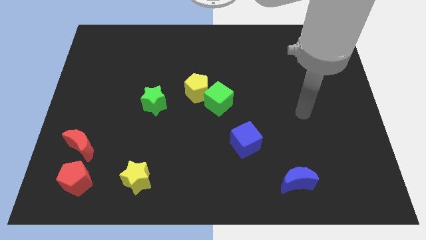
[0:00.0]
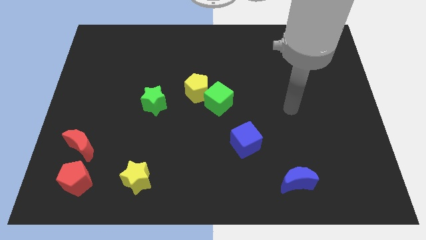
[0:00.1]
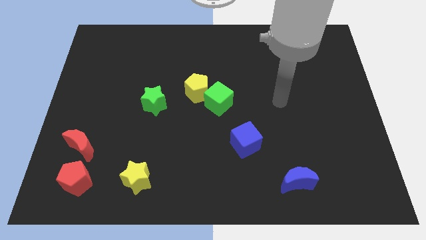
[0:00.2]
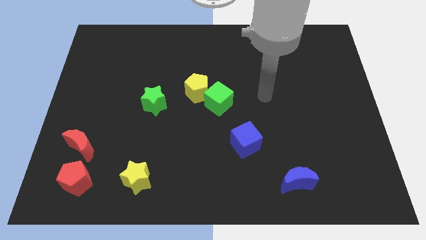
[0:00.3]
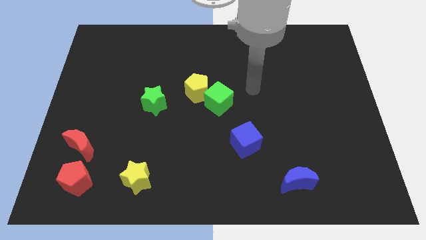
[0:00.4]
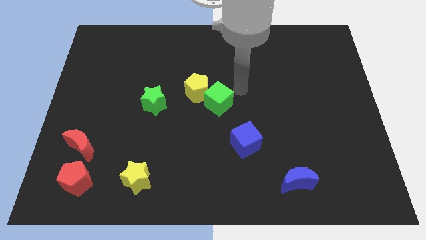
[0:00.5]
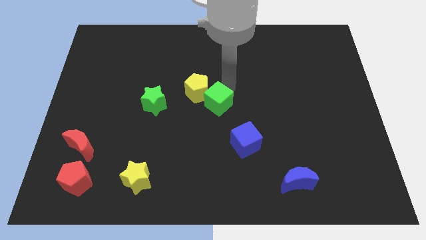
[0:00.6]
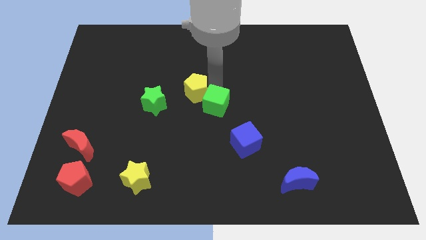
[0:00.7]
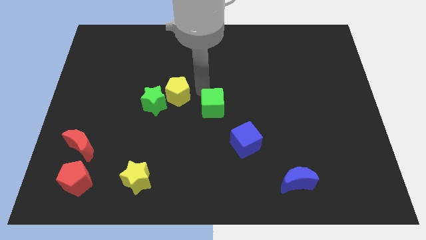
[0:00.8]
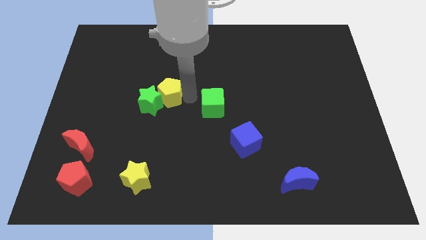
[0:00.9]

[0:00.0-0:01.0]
pull the green cube apart from the yellow pentagon

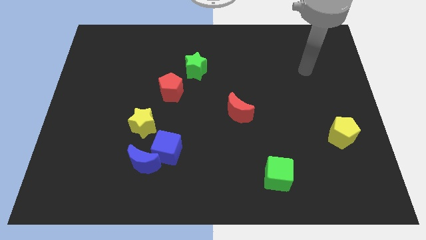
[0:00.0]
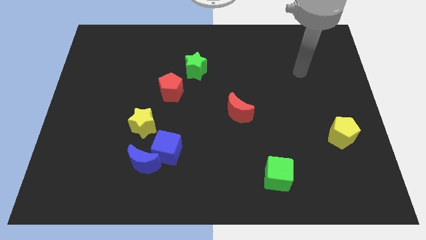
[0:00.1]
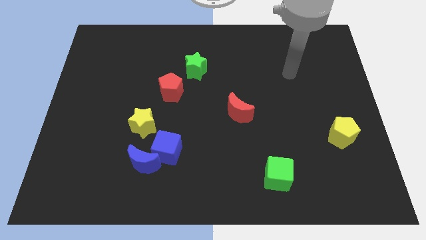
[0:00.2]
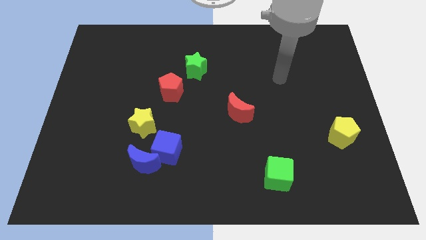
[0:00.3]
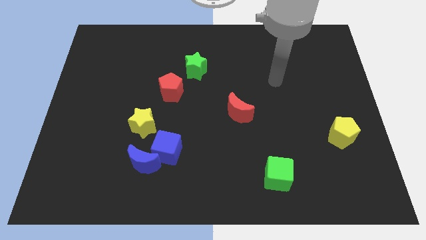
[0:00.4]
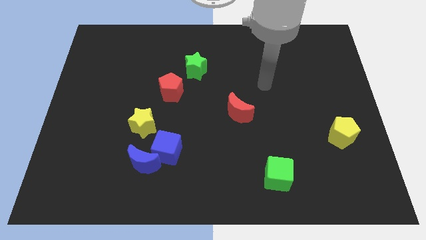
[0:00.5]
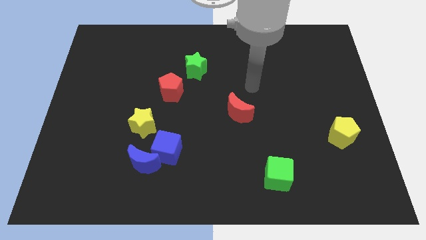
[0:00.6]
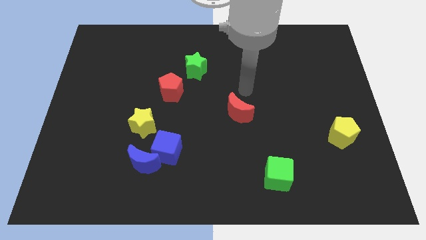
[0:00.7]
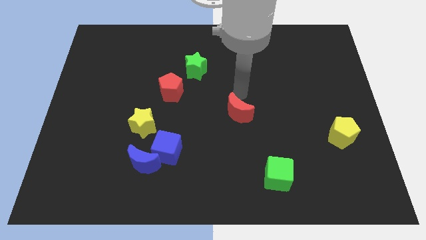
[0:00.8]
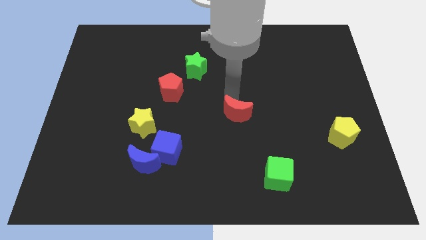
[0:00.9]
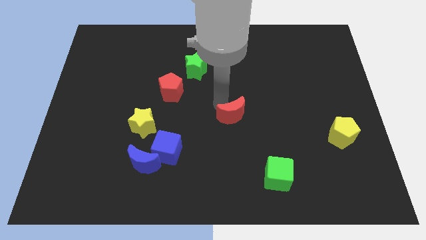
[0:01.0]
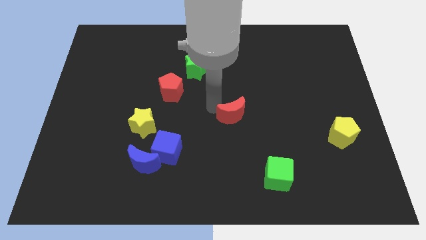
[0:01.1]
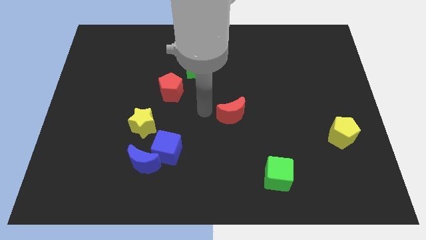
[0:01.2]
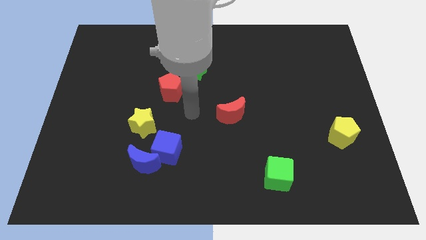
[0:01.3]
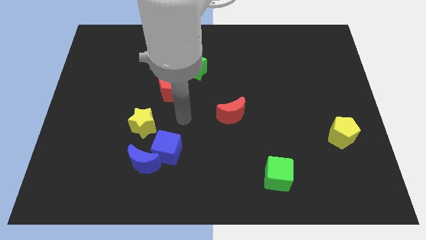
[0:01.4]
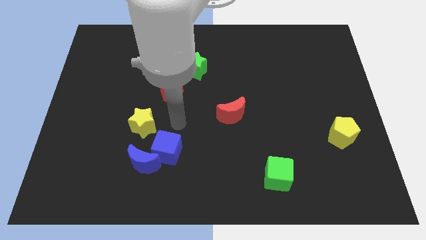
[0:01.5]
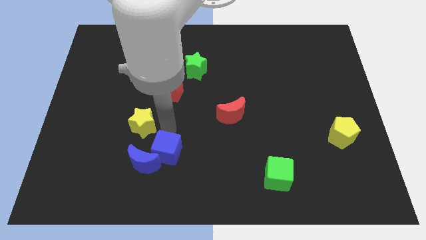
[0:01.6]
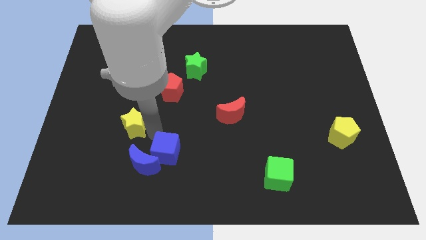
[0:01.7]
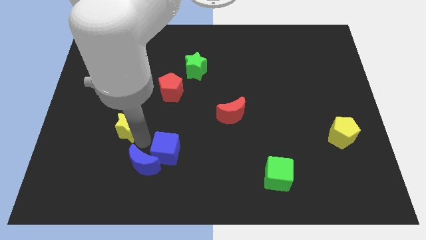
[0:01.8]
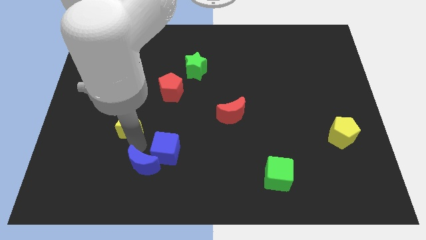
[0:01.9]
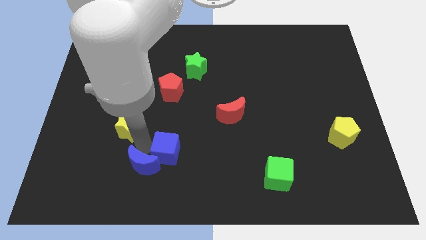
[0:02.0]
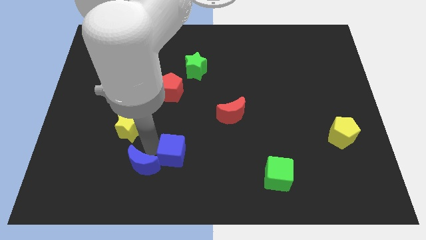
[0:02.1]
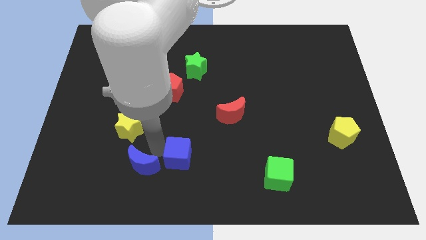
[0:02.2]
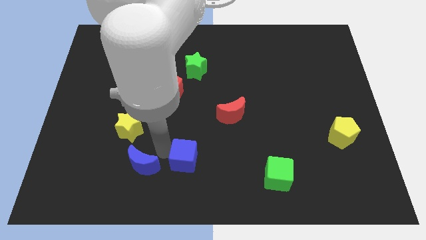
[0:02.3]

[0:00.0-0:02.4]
separate the blue cube from the blue moon and yellow star

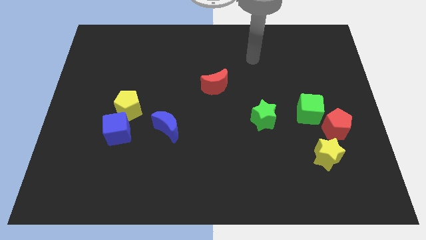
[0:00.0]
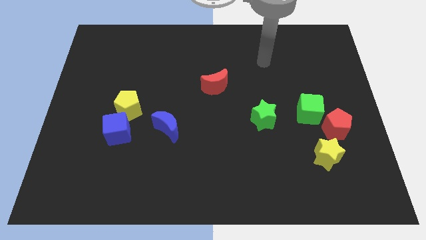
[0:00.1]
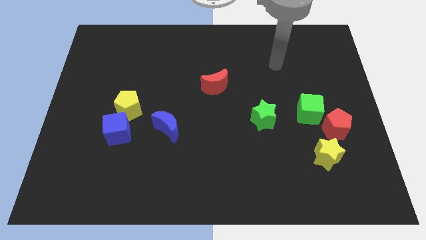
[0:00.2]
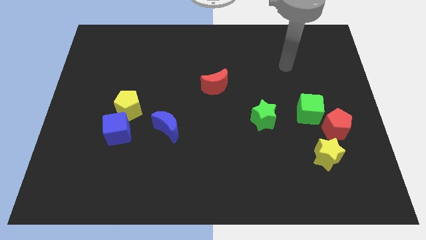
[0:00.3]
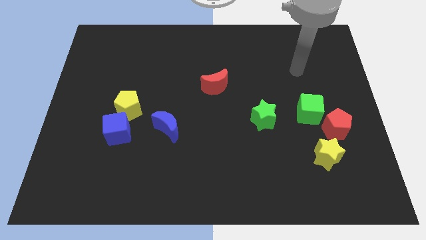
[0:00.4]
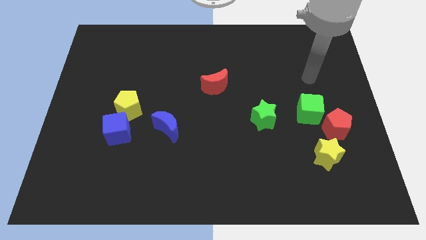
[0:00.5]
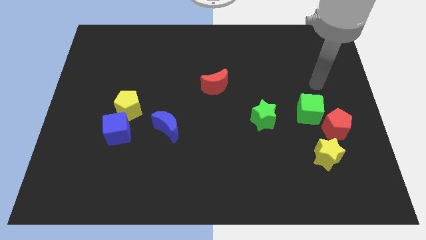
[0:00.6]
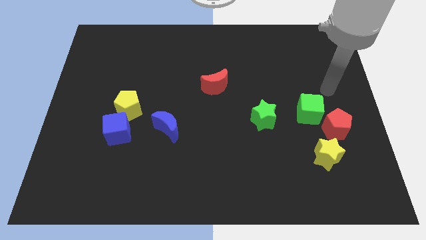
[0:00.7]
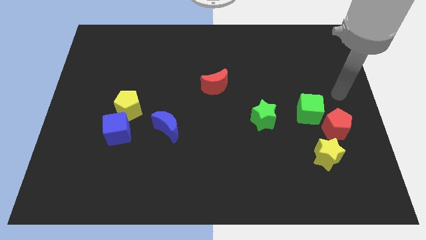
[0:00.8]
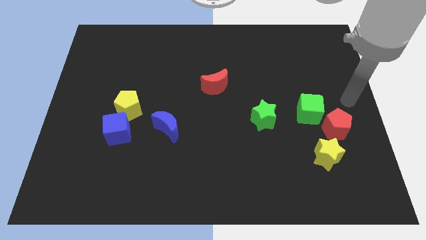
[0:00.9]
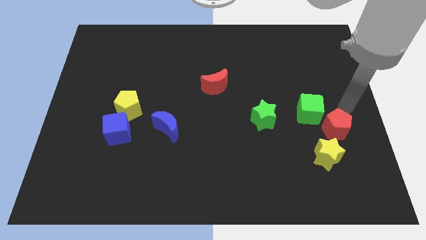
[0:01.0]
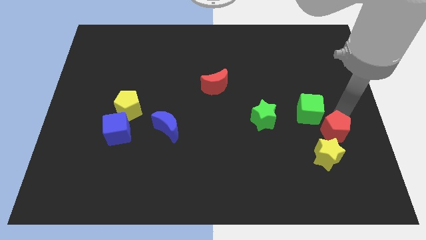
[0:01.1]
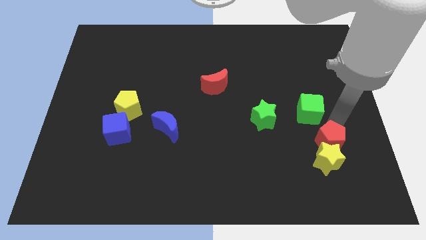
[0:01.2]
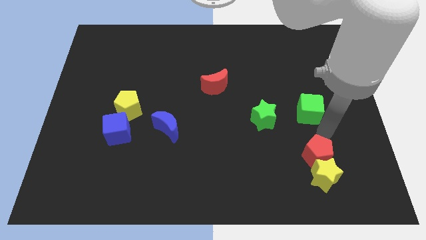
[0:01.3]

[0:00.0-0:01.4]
move the green cube away from the red pentagon

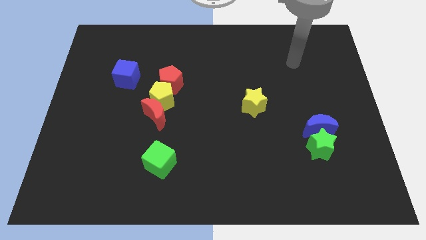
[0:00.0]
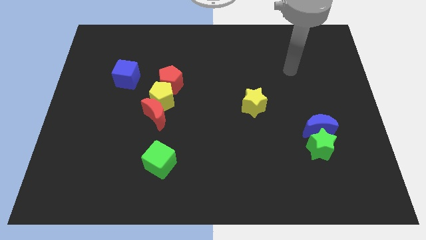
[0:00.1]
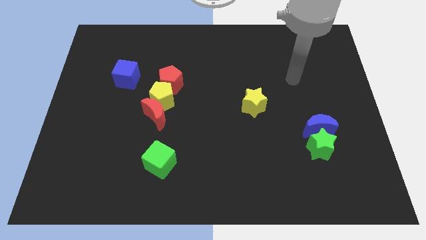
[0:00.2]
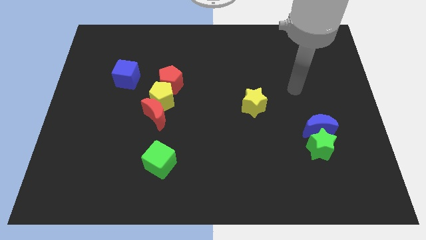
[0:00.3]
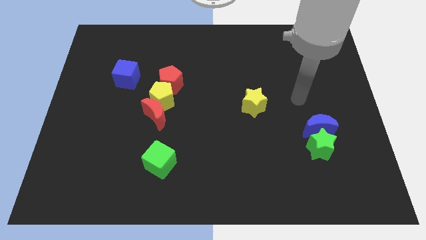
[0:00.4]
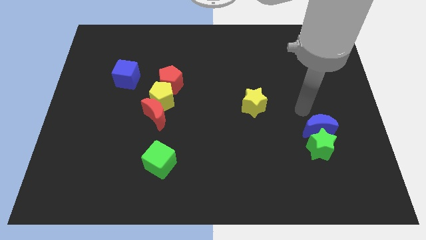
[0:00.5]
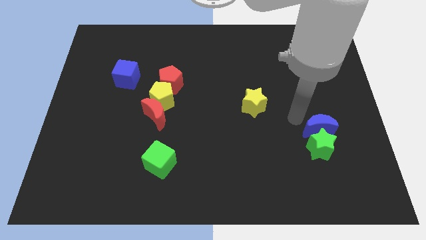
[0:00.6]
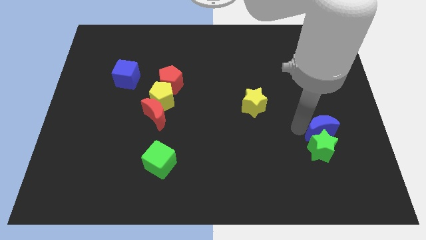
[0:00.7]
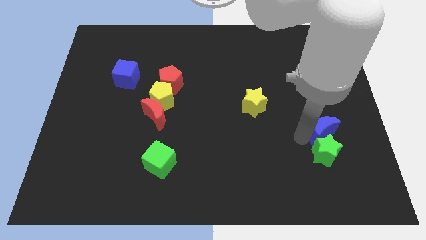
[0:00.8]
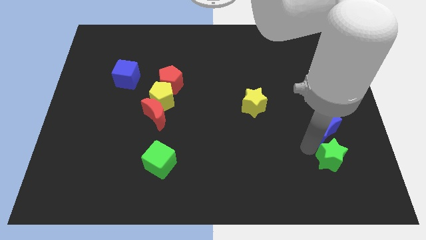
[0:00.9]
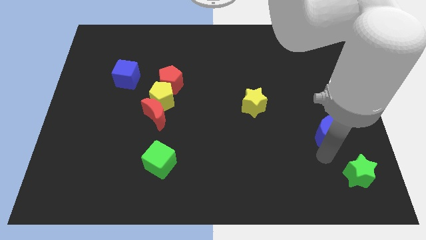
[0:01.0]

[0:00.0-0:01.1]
separate the blue moon from the green star

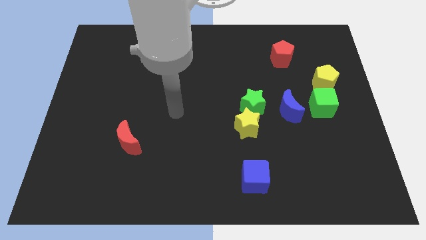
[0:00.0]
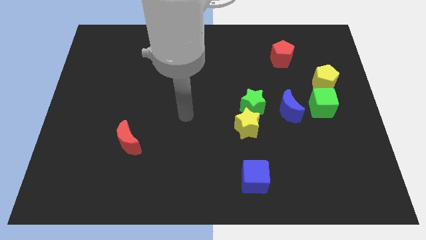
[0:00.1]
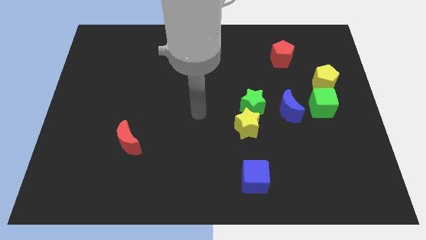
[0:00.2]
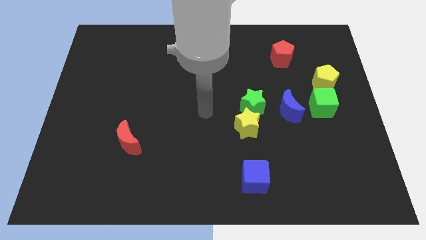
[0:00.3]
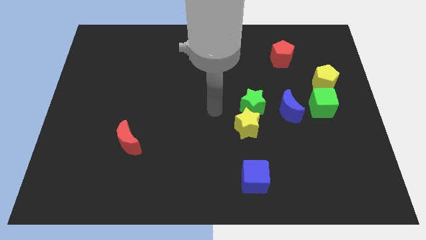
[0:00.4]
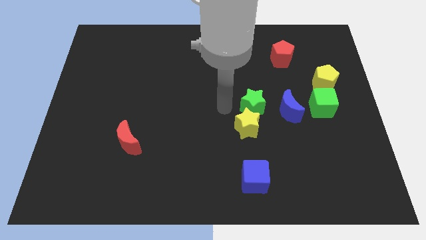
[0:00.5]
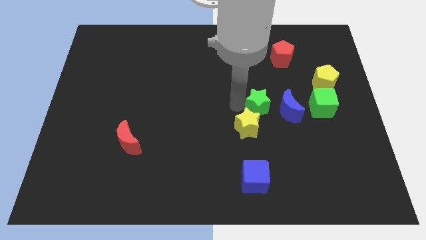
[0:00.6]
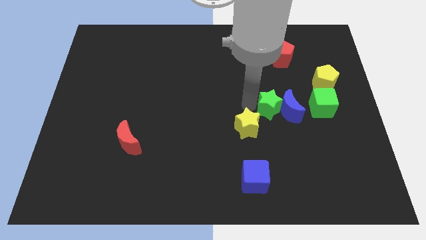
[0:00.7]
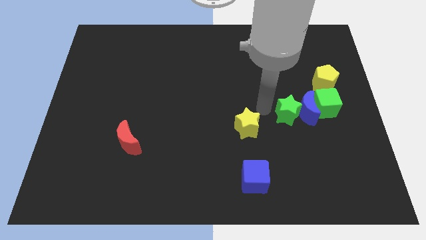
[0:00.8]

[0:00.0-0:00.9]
move the yellow star away from the green star

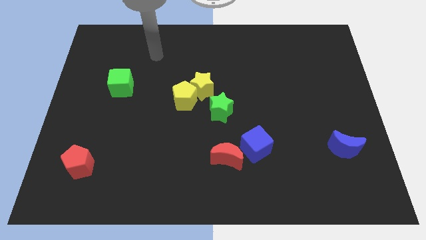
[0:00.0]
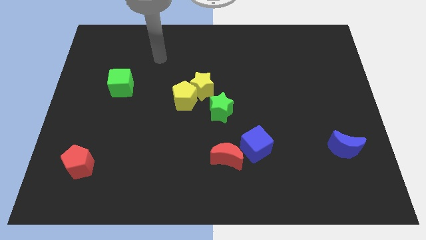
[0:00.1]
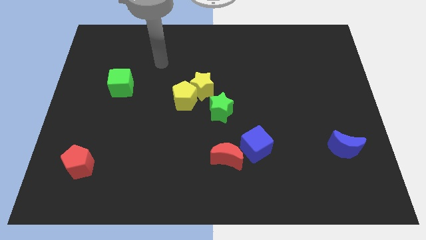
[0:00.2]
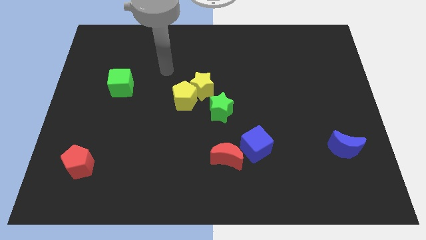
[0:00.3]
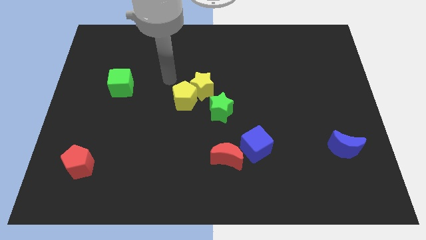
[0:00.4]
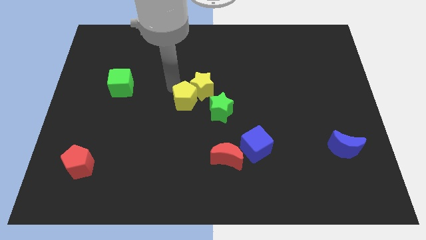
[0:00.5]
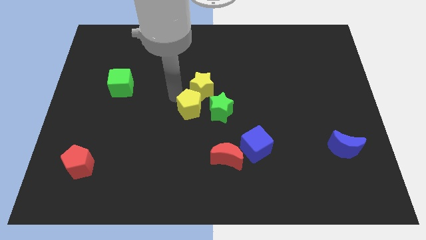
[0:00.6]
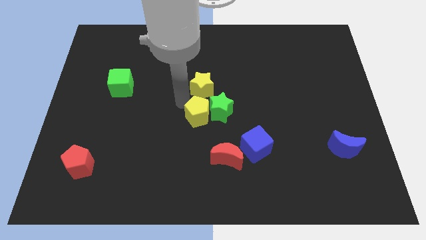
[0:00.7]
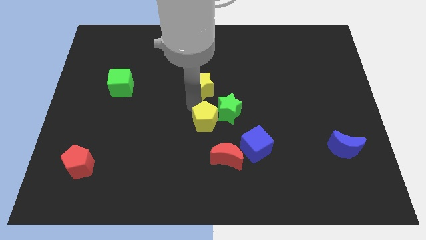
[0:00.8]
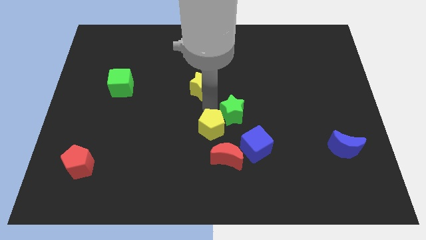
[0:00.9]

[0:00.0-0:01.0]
pull the yellow star apart from the yellow pentagon and green star

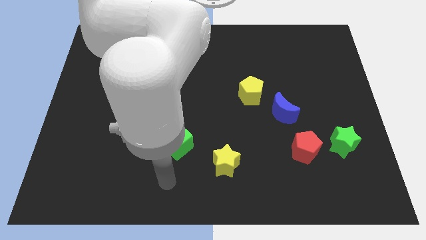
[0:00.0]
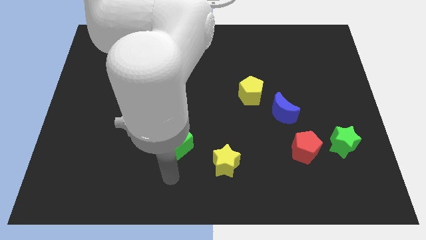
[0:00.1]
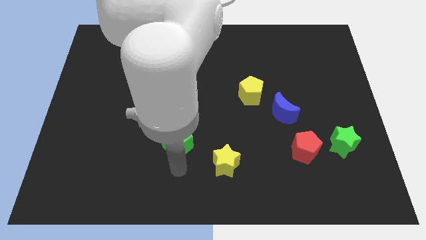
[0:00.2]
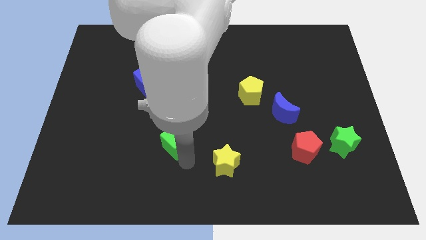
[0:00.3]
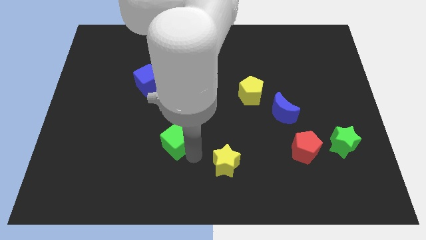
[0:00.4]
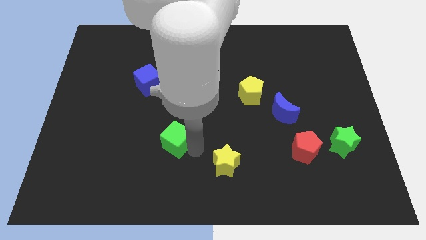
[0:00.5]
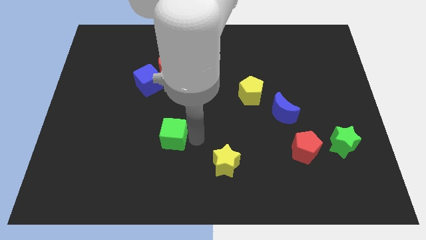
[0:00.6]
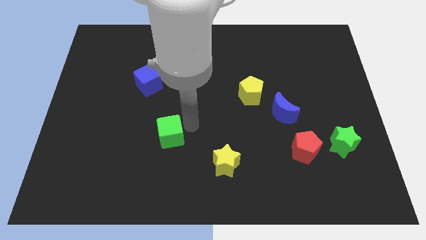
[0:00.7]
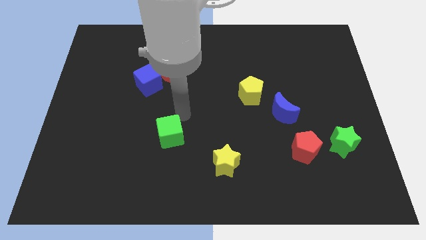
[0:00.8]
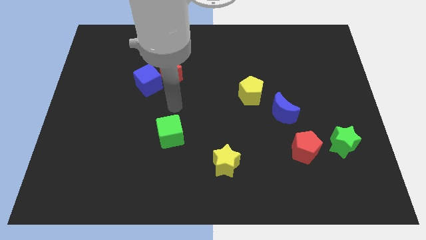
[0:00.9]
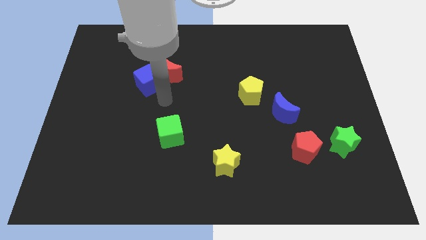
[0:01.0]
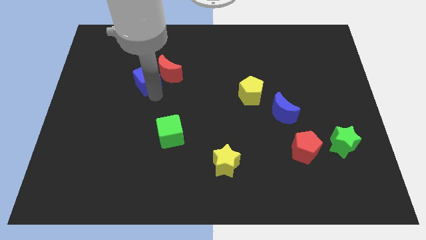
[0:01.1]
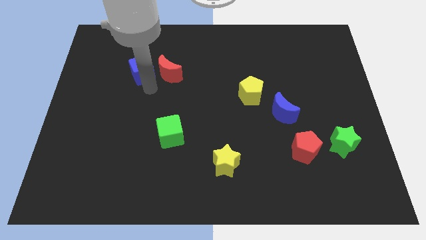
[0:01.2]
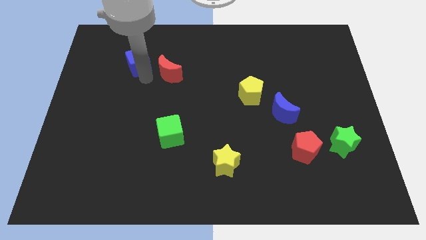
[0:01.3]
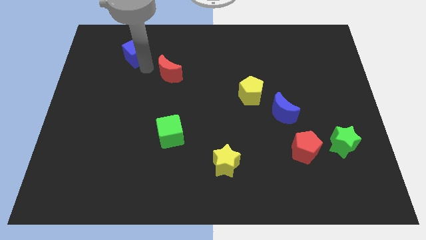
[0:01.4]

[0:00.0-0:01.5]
separate the red moon from the blue cube
